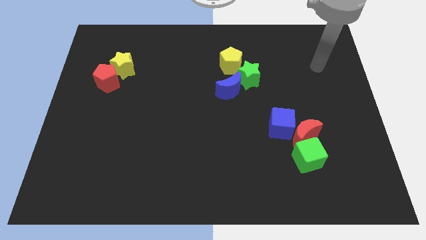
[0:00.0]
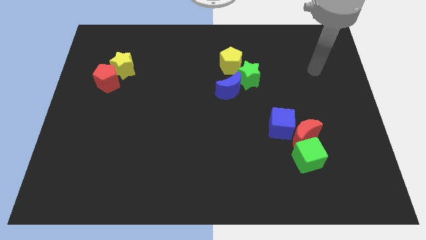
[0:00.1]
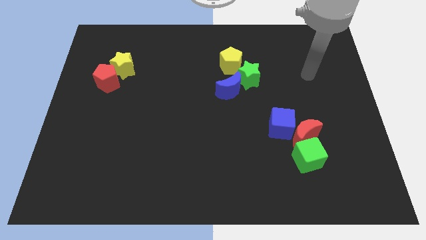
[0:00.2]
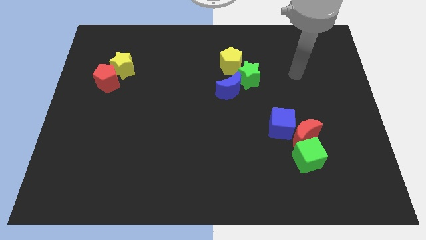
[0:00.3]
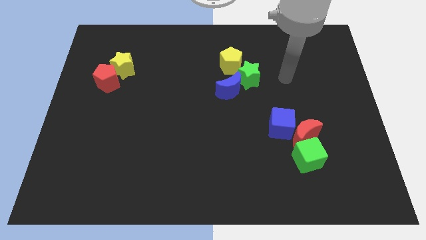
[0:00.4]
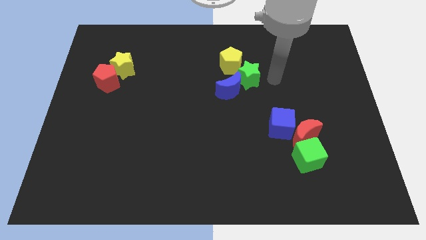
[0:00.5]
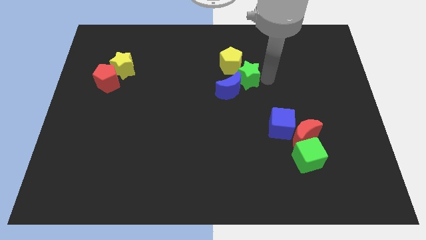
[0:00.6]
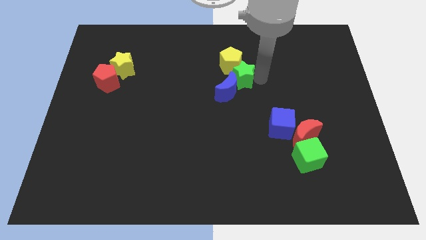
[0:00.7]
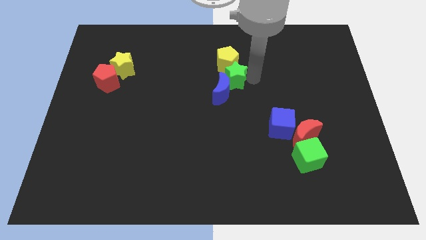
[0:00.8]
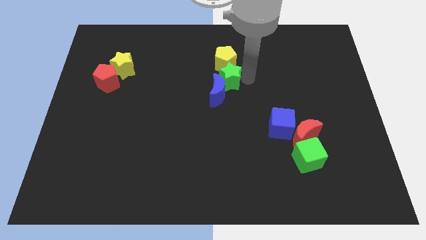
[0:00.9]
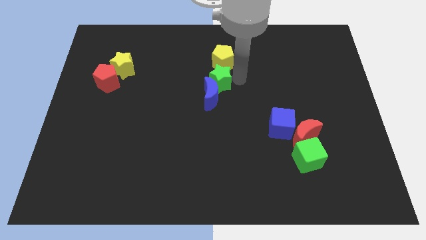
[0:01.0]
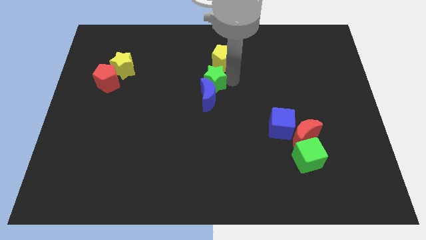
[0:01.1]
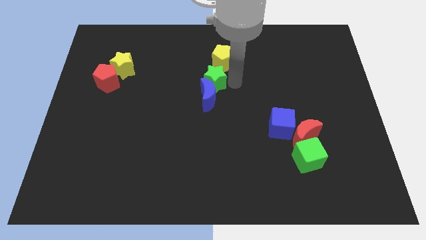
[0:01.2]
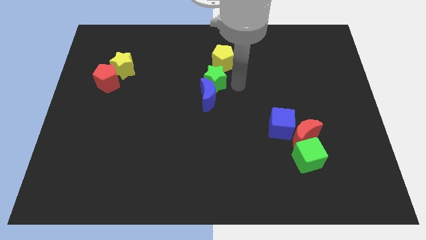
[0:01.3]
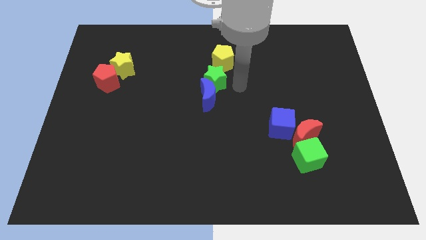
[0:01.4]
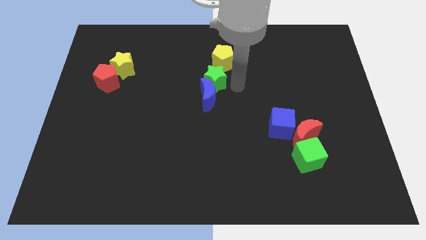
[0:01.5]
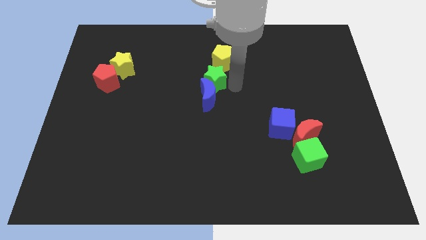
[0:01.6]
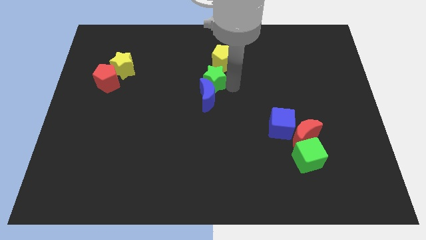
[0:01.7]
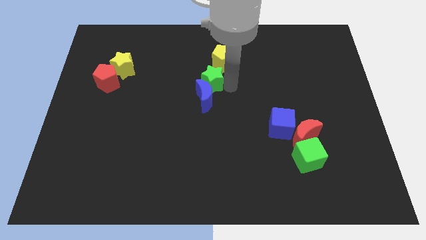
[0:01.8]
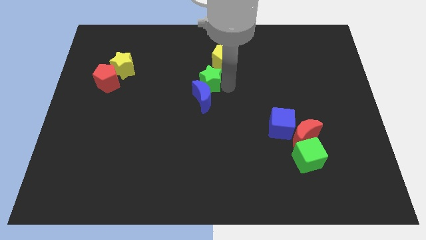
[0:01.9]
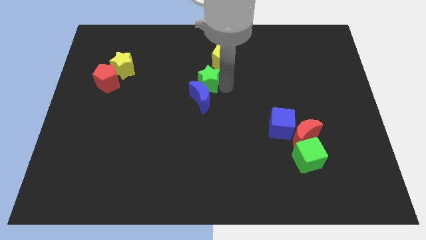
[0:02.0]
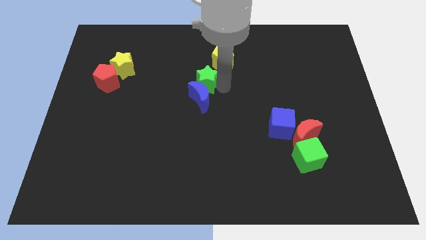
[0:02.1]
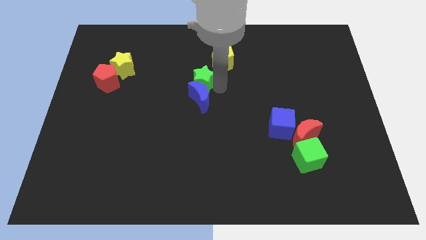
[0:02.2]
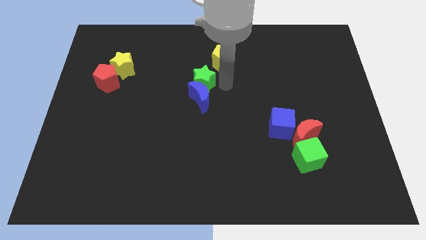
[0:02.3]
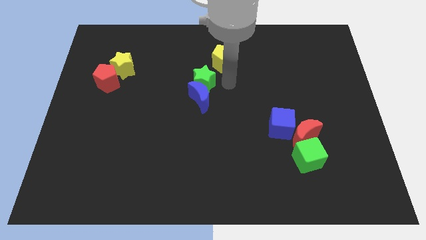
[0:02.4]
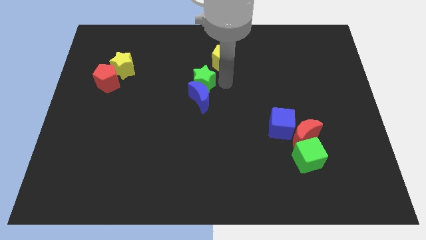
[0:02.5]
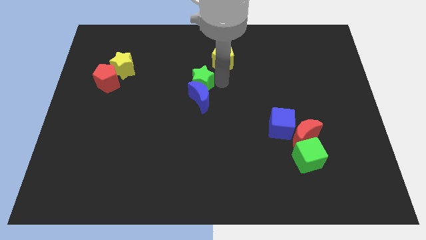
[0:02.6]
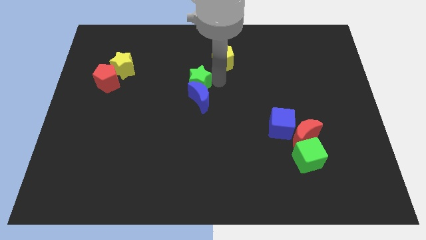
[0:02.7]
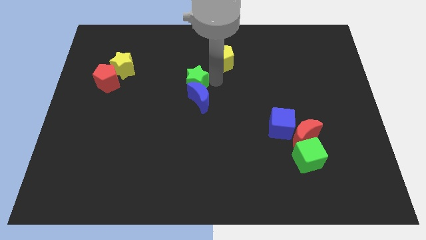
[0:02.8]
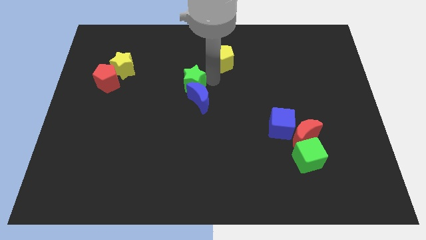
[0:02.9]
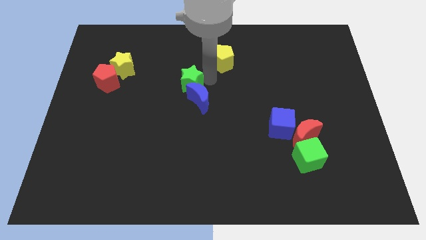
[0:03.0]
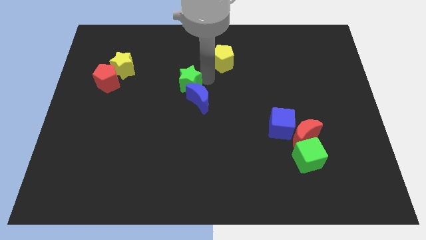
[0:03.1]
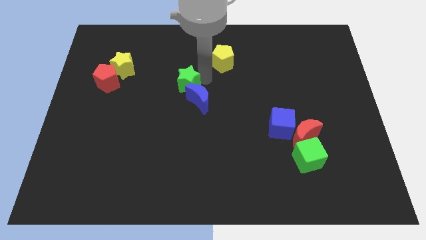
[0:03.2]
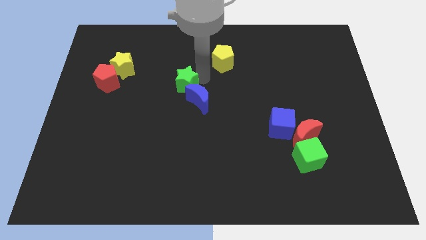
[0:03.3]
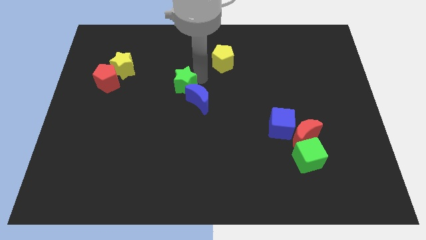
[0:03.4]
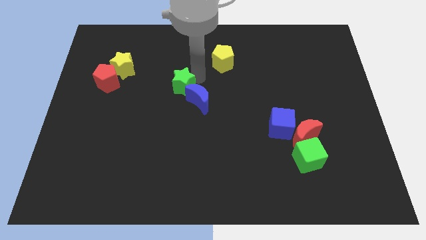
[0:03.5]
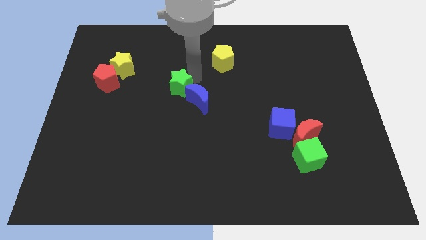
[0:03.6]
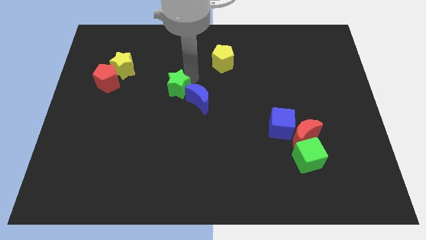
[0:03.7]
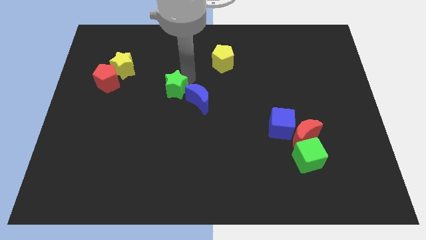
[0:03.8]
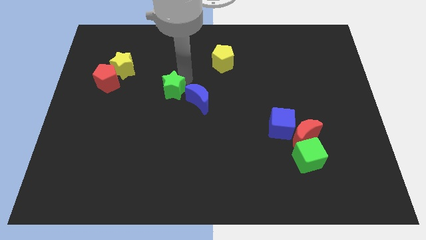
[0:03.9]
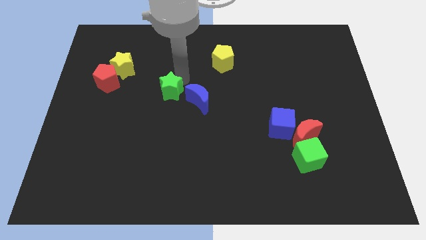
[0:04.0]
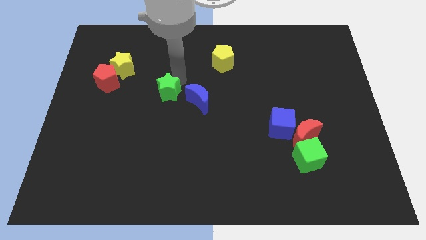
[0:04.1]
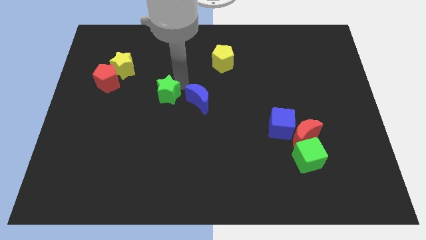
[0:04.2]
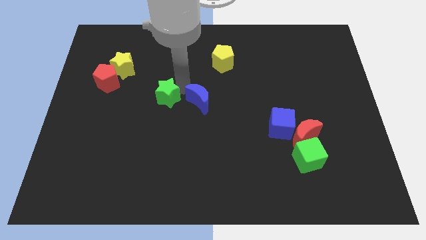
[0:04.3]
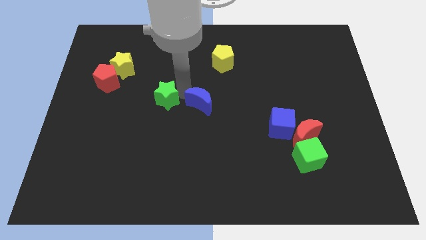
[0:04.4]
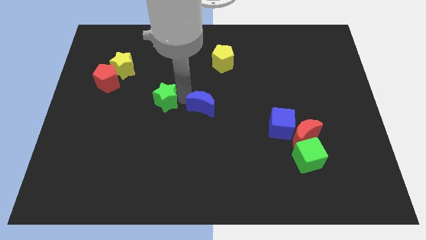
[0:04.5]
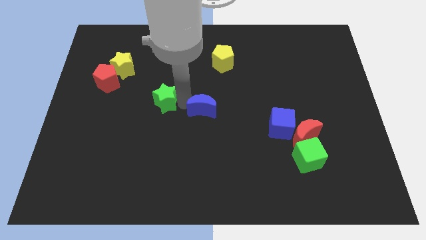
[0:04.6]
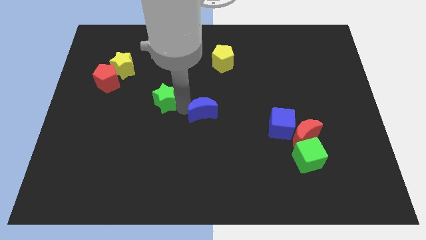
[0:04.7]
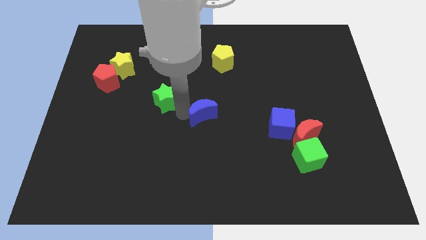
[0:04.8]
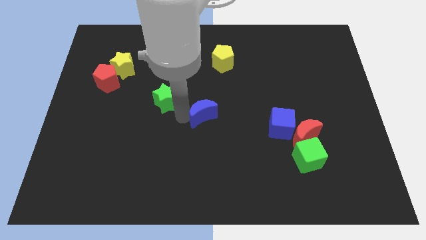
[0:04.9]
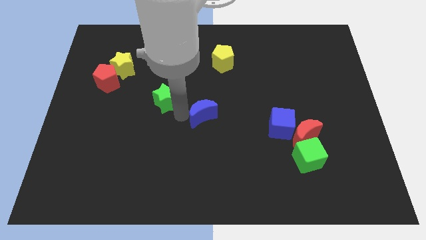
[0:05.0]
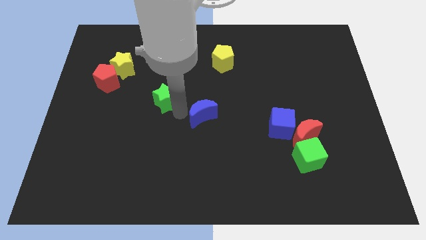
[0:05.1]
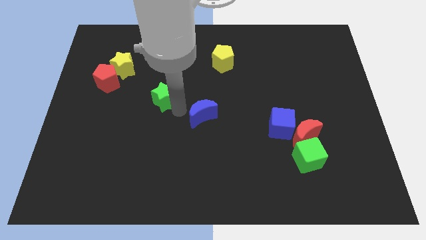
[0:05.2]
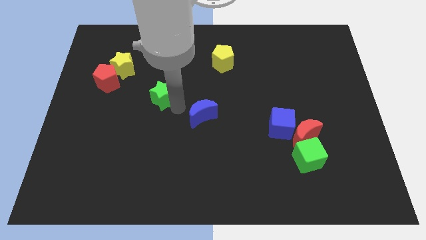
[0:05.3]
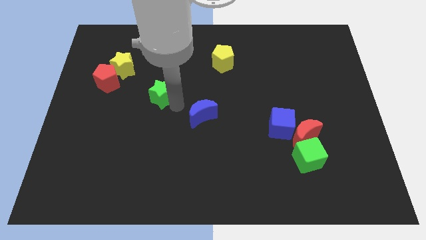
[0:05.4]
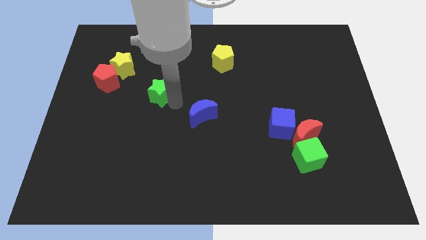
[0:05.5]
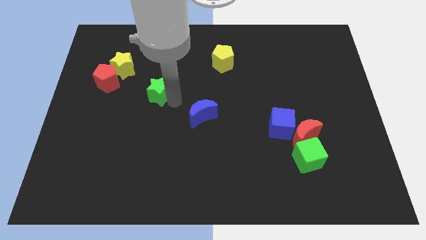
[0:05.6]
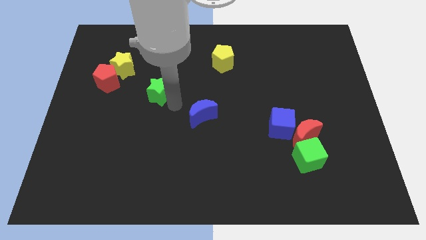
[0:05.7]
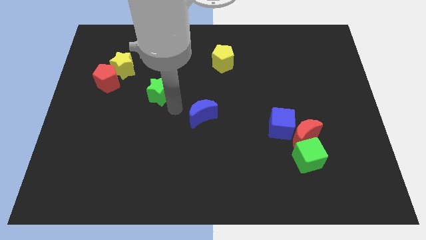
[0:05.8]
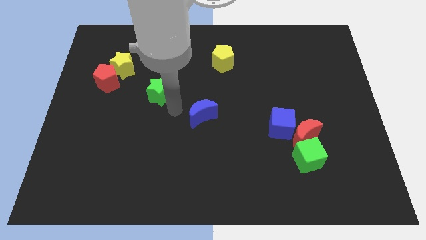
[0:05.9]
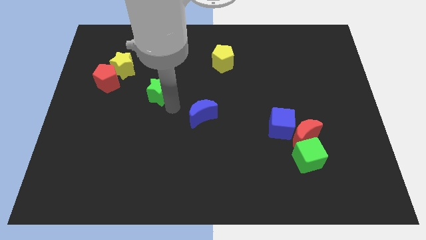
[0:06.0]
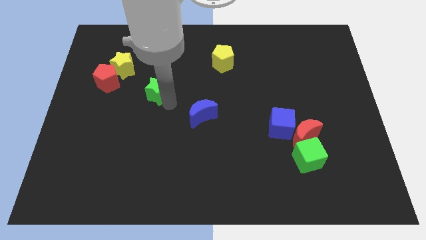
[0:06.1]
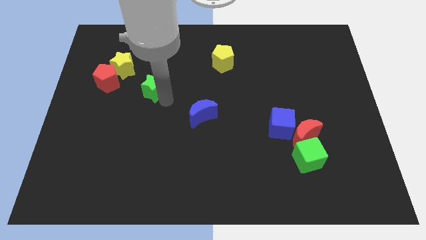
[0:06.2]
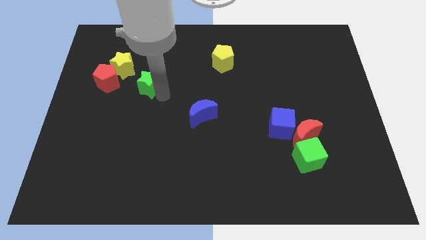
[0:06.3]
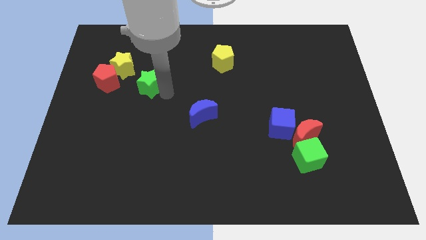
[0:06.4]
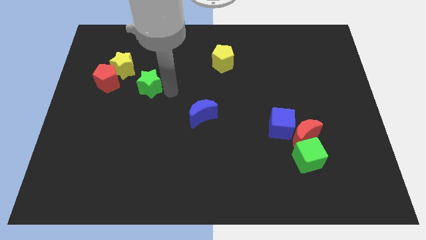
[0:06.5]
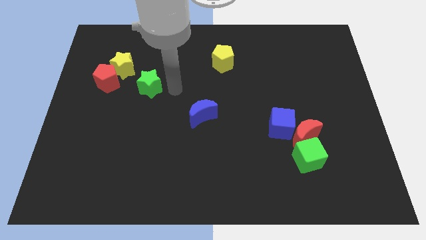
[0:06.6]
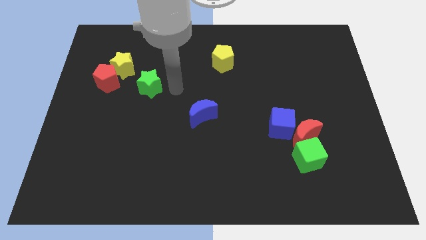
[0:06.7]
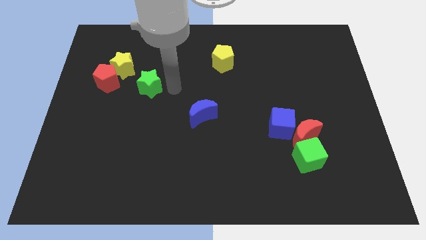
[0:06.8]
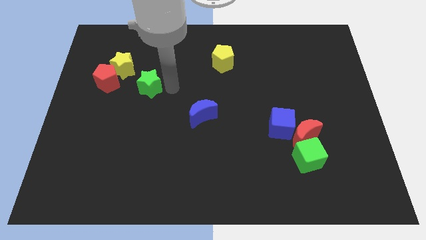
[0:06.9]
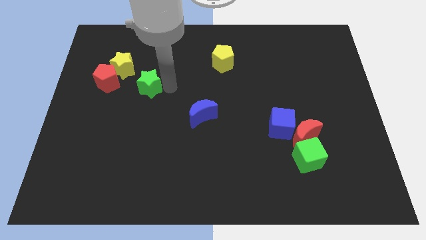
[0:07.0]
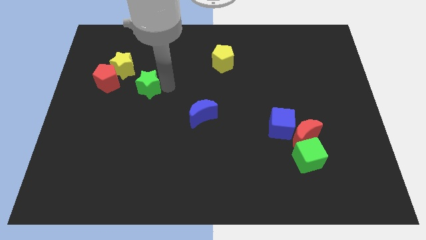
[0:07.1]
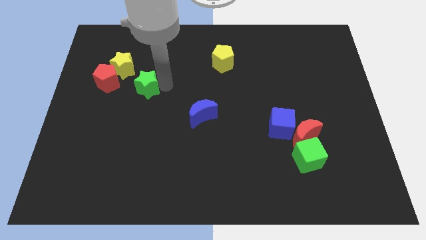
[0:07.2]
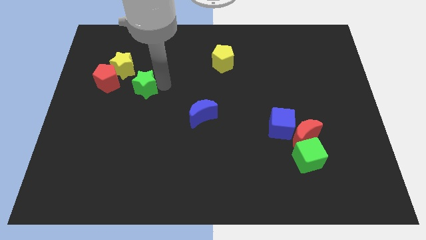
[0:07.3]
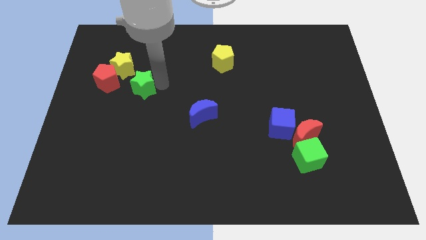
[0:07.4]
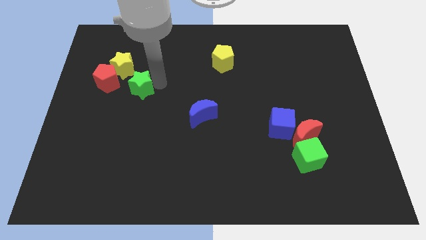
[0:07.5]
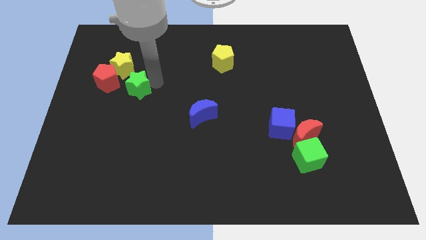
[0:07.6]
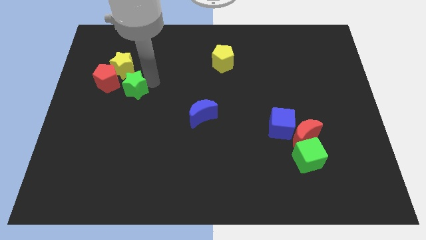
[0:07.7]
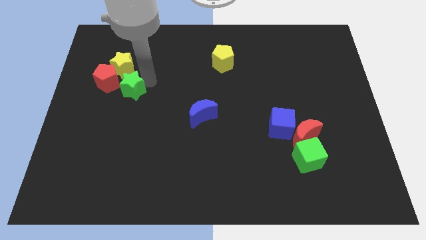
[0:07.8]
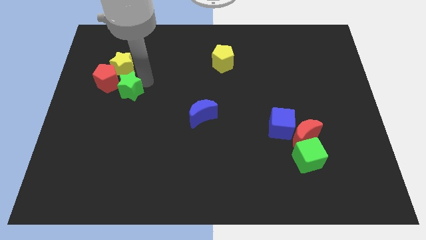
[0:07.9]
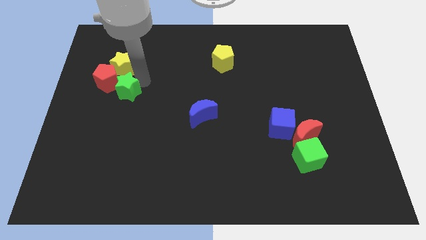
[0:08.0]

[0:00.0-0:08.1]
put the green star next to the red pentagon
